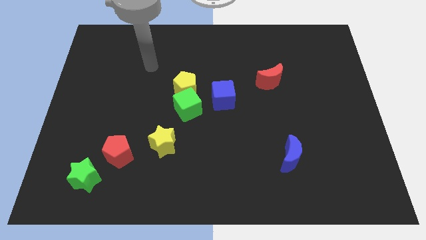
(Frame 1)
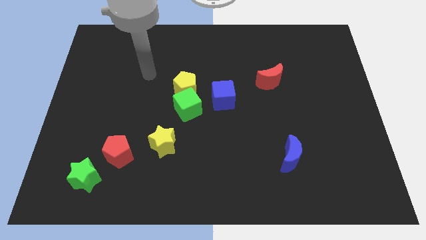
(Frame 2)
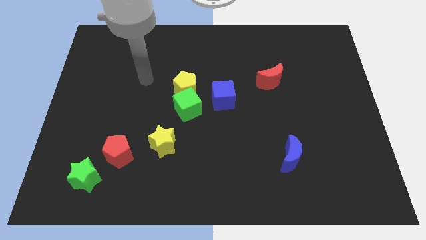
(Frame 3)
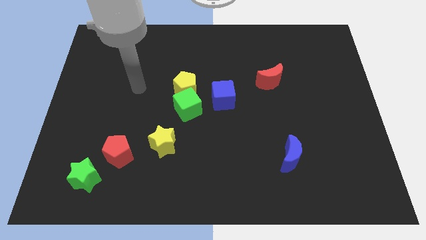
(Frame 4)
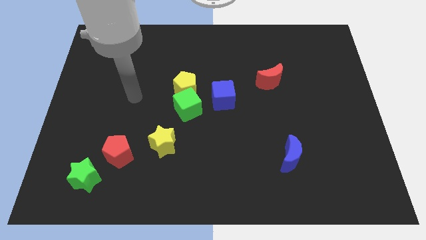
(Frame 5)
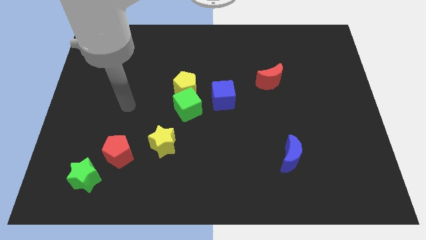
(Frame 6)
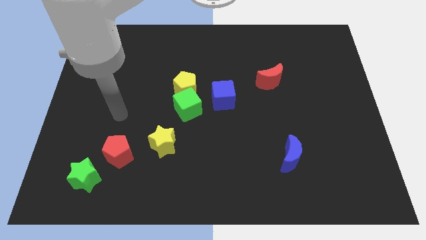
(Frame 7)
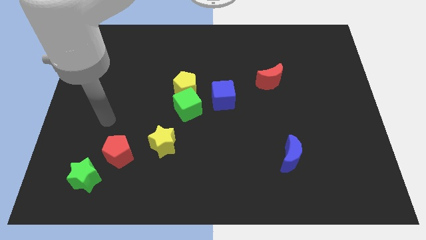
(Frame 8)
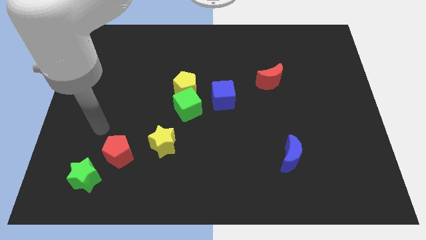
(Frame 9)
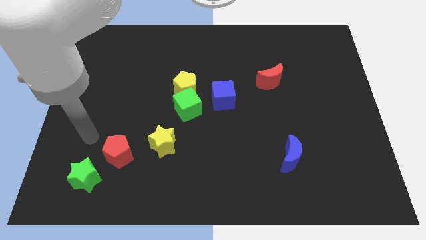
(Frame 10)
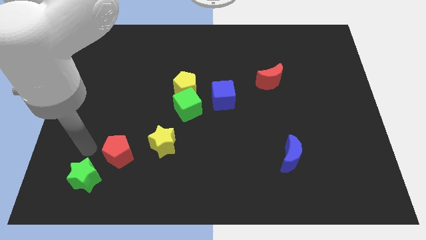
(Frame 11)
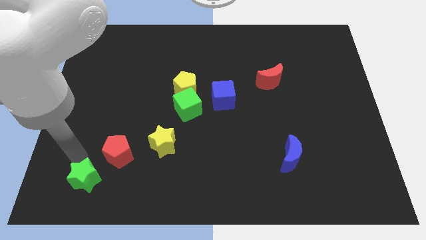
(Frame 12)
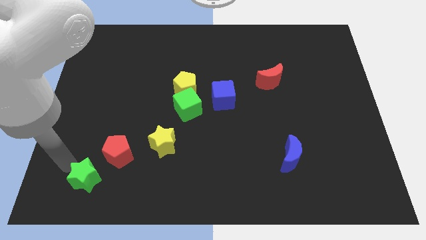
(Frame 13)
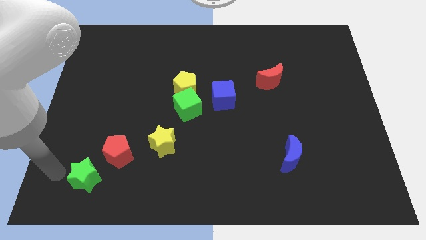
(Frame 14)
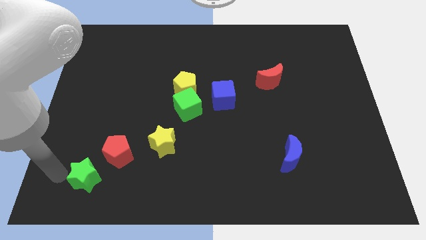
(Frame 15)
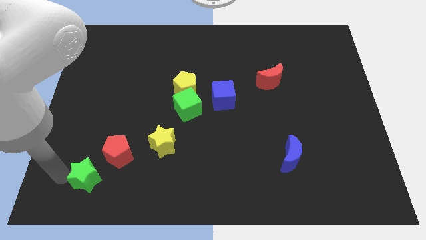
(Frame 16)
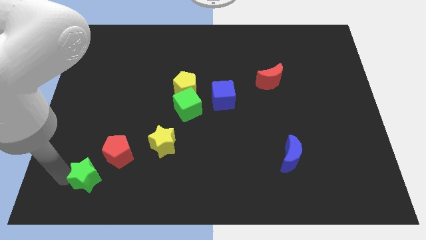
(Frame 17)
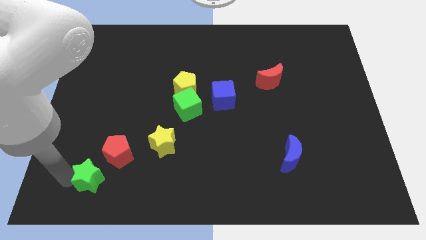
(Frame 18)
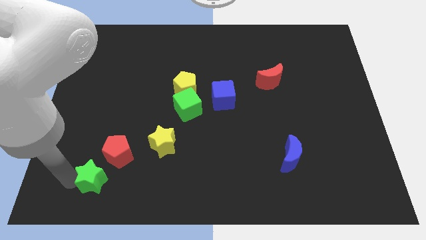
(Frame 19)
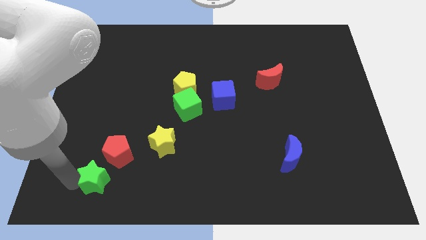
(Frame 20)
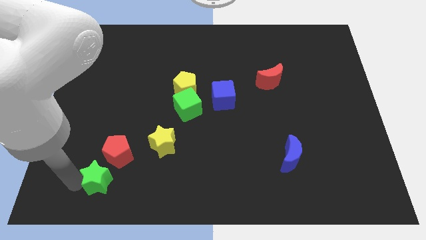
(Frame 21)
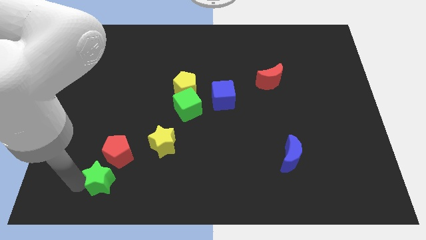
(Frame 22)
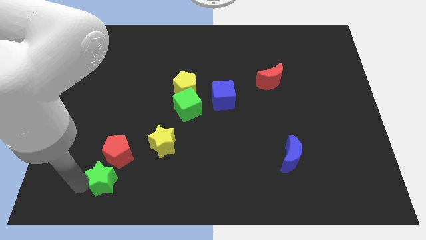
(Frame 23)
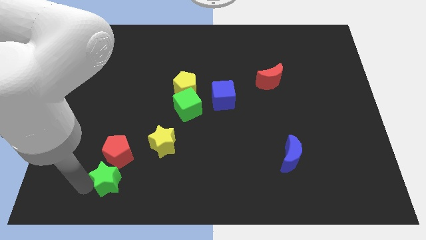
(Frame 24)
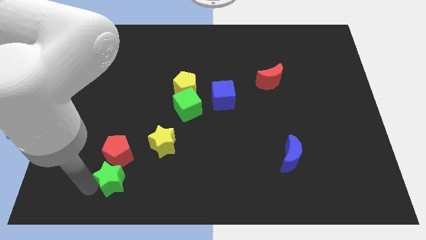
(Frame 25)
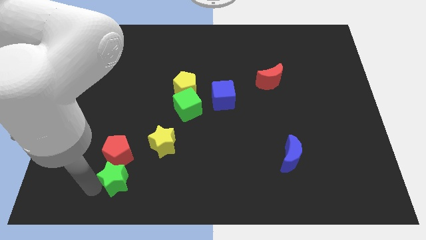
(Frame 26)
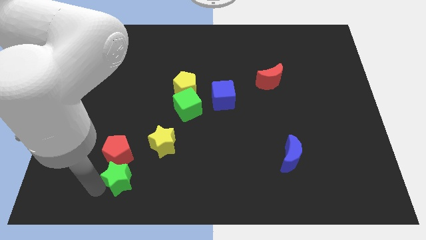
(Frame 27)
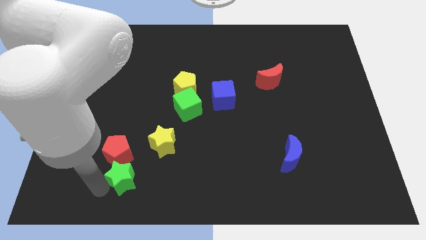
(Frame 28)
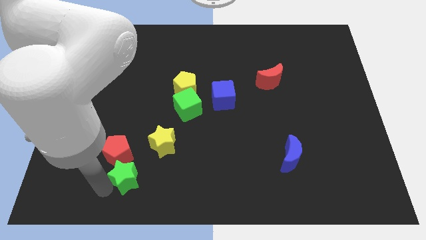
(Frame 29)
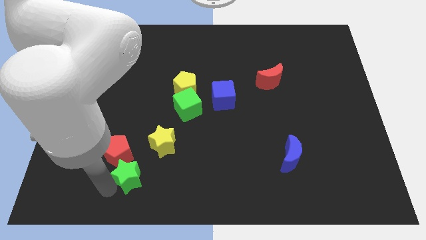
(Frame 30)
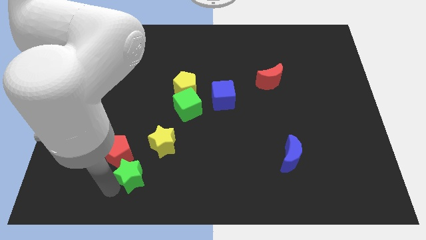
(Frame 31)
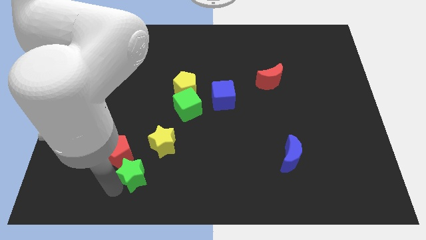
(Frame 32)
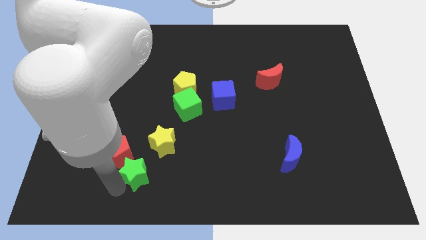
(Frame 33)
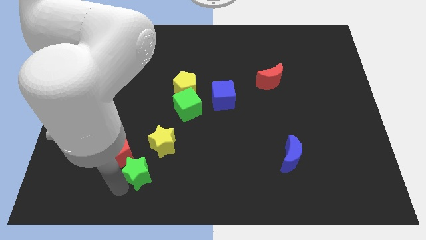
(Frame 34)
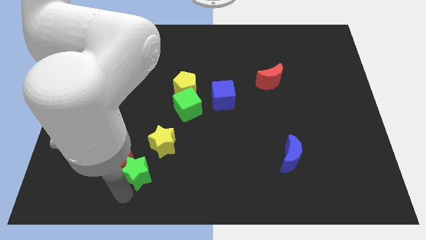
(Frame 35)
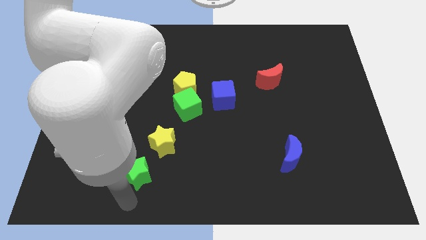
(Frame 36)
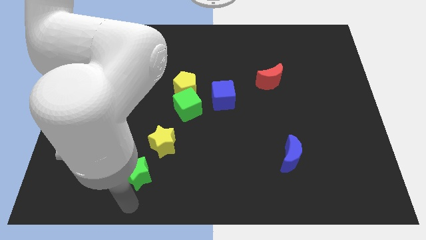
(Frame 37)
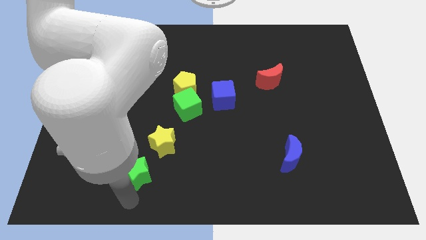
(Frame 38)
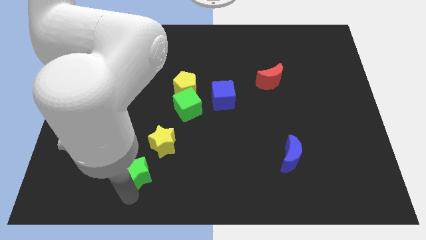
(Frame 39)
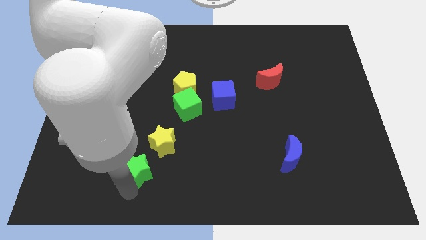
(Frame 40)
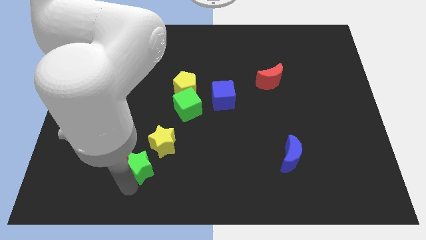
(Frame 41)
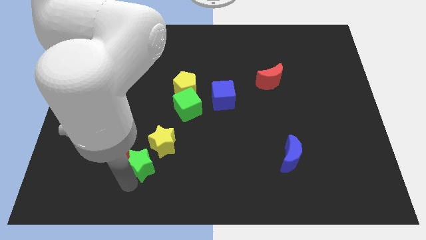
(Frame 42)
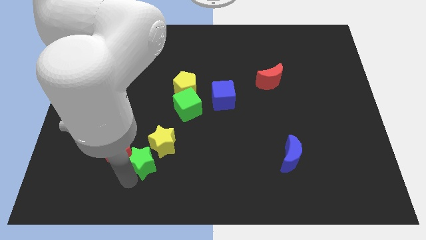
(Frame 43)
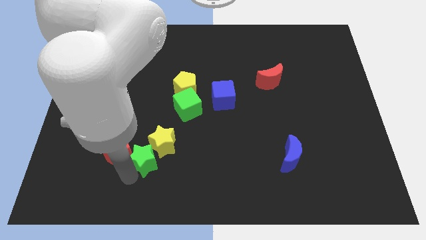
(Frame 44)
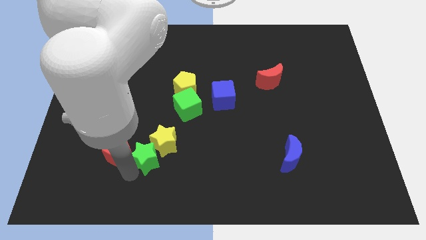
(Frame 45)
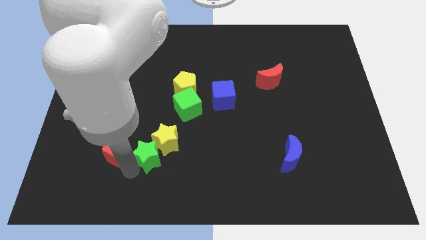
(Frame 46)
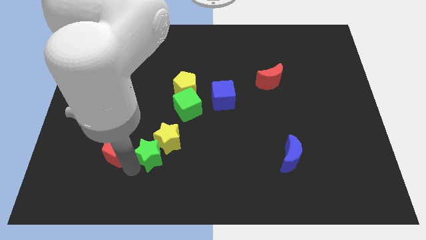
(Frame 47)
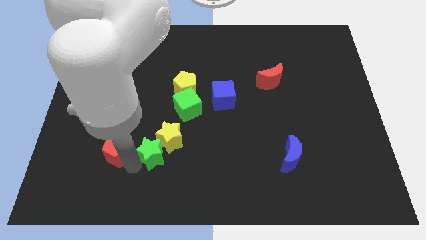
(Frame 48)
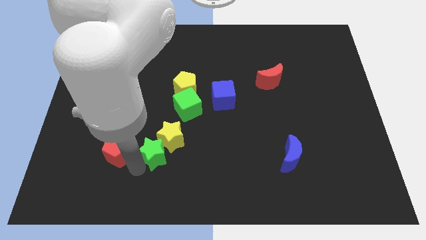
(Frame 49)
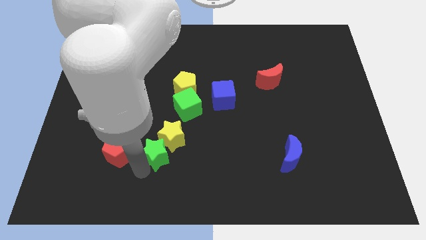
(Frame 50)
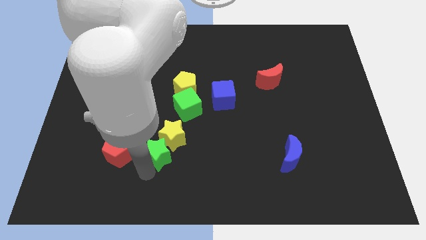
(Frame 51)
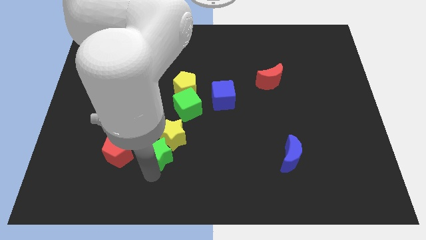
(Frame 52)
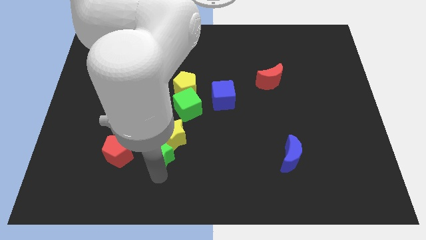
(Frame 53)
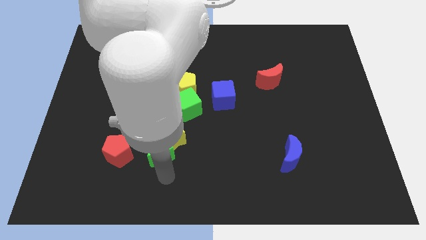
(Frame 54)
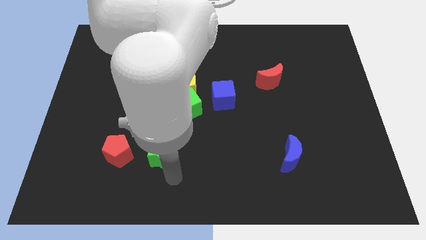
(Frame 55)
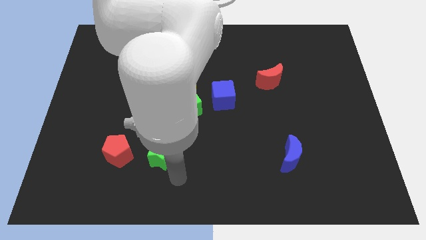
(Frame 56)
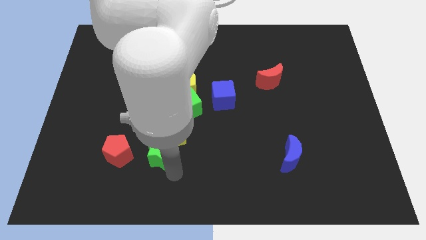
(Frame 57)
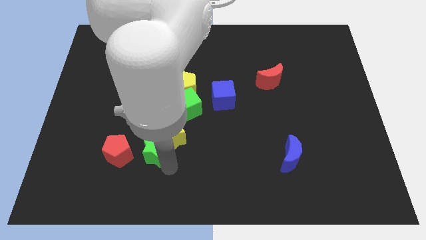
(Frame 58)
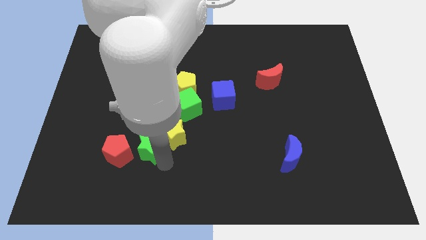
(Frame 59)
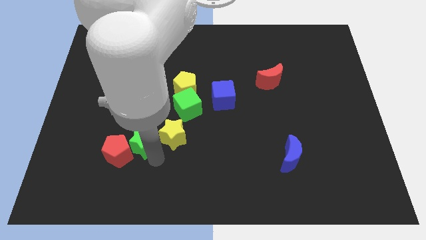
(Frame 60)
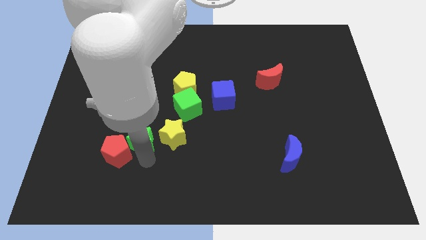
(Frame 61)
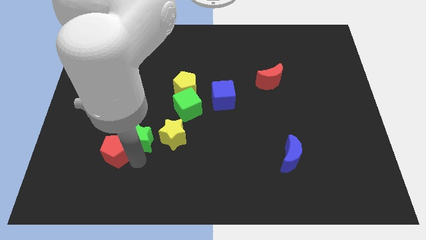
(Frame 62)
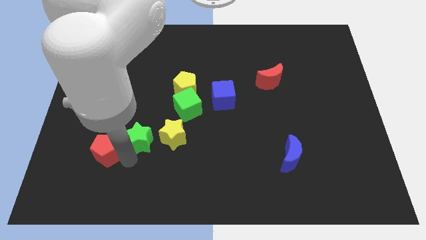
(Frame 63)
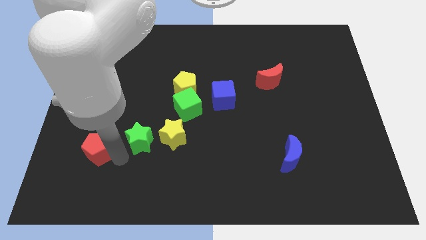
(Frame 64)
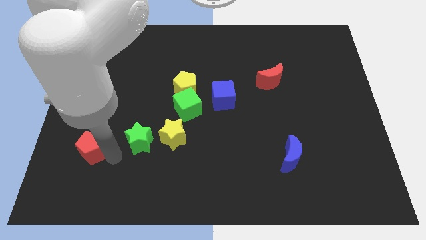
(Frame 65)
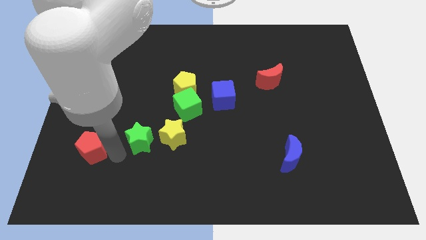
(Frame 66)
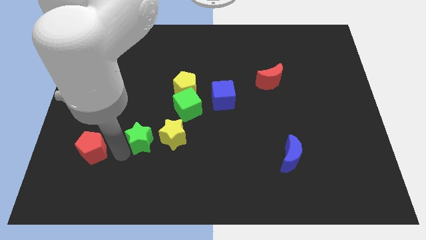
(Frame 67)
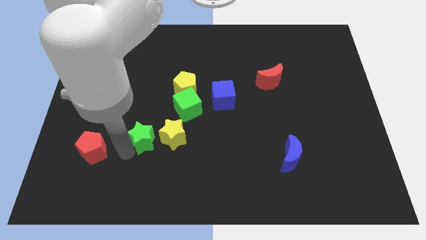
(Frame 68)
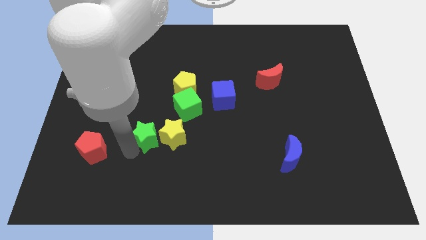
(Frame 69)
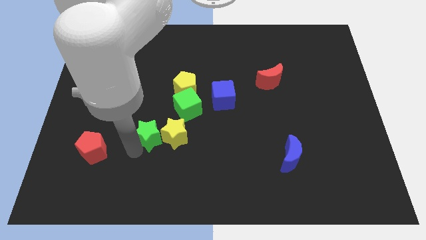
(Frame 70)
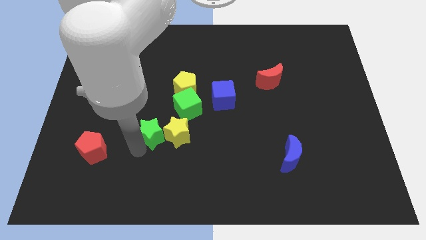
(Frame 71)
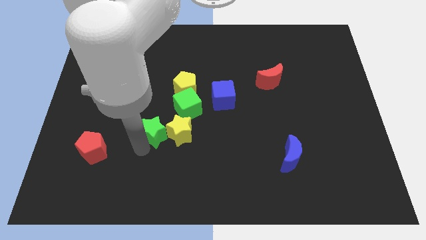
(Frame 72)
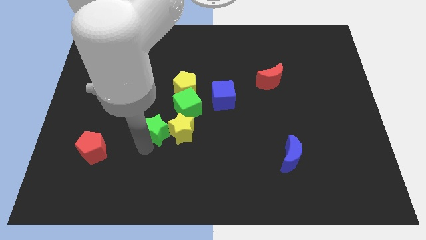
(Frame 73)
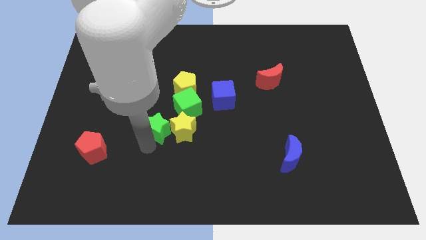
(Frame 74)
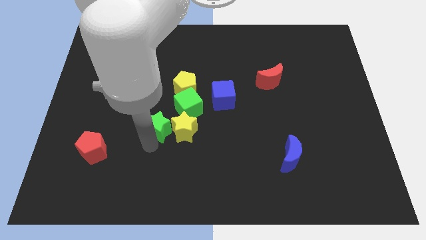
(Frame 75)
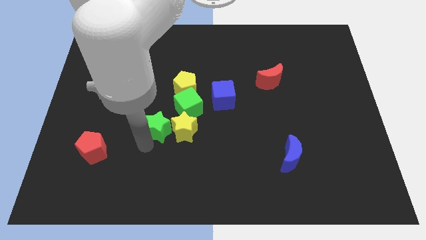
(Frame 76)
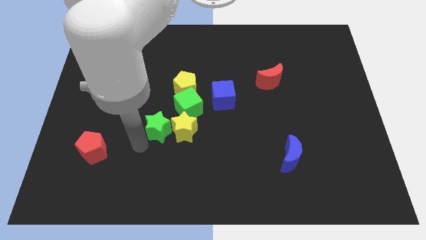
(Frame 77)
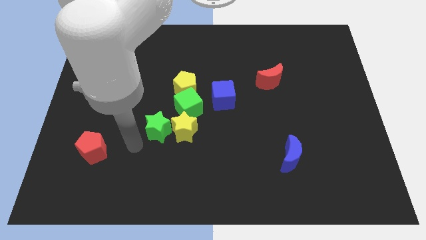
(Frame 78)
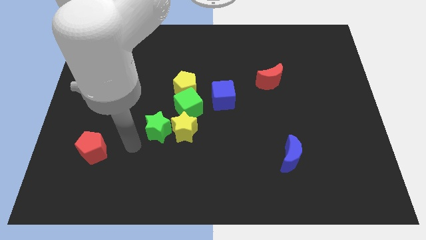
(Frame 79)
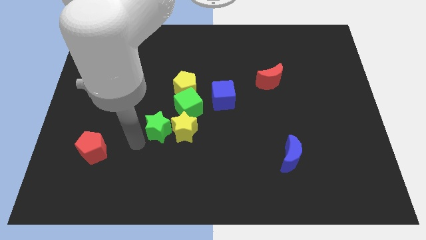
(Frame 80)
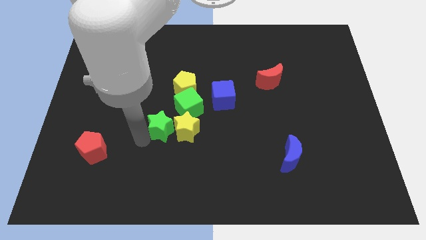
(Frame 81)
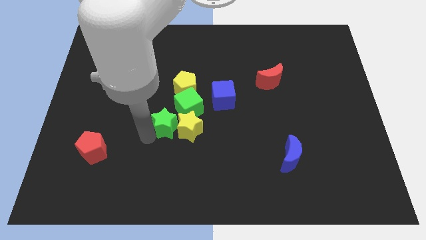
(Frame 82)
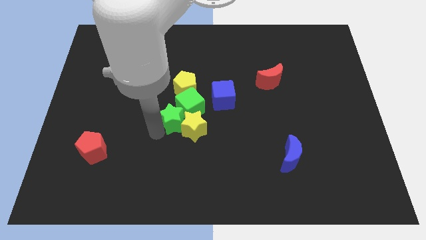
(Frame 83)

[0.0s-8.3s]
put the green star to the green cube
